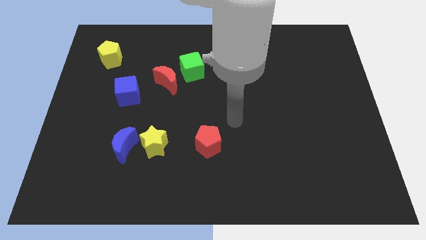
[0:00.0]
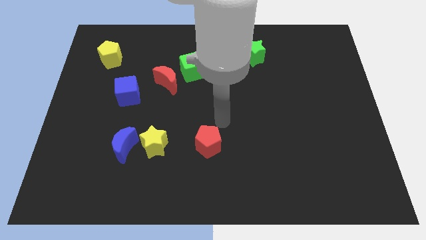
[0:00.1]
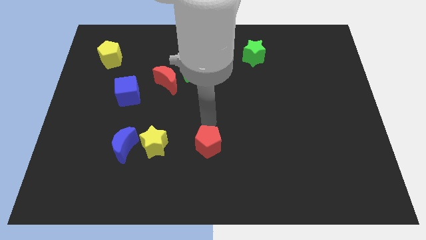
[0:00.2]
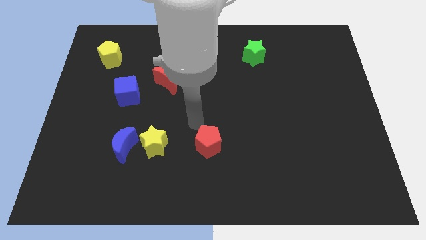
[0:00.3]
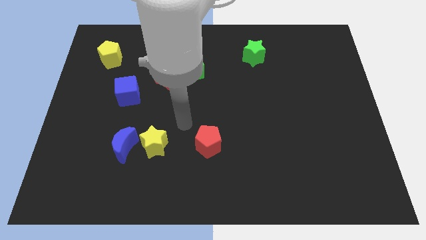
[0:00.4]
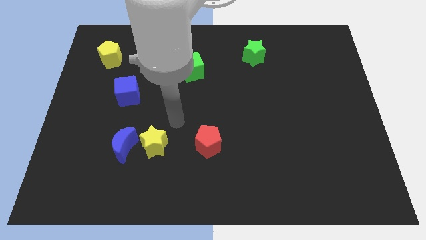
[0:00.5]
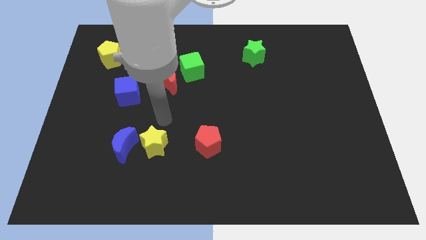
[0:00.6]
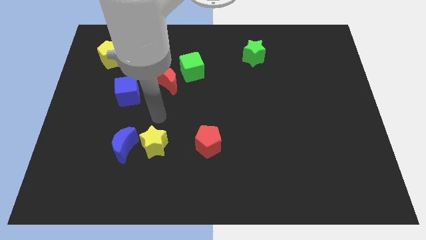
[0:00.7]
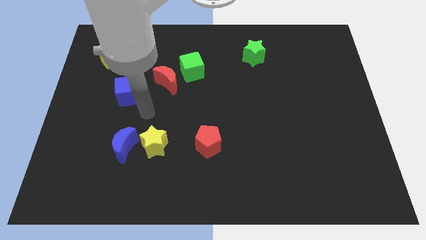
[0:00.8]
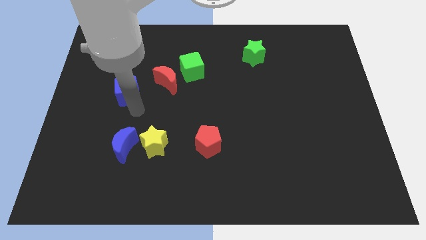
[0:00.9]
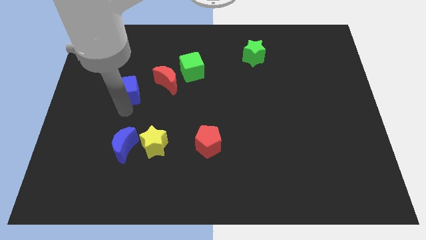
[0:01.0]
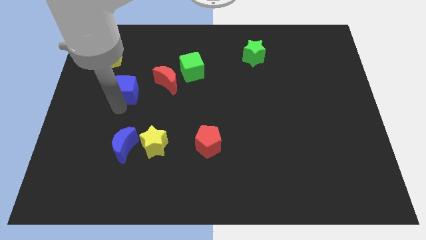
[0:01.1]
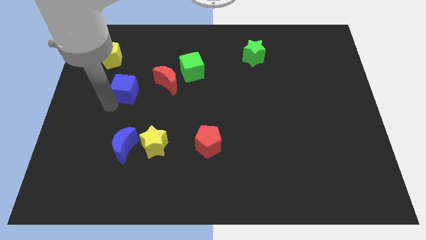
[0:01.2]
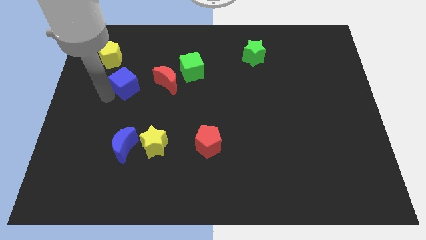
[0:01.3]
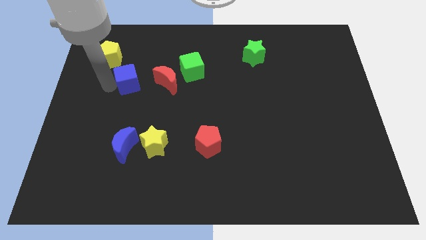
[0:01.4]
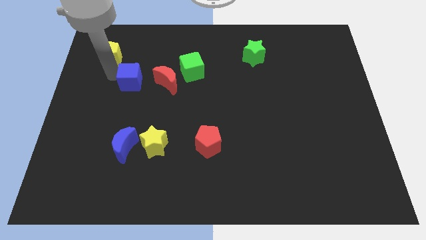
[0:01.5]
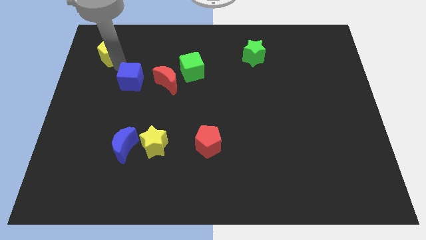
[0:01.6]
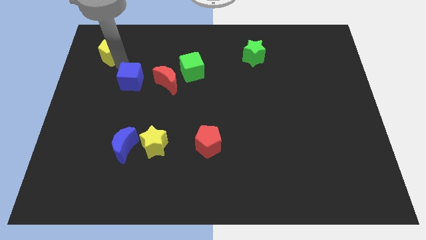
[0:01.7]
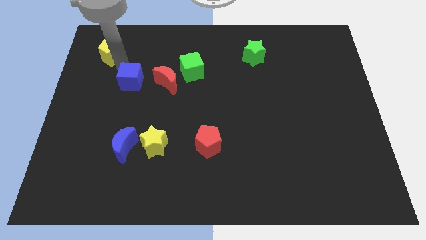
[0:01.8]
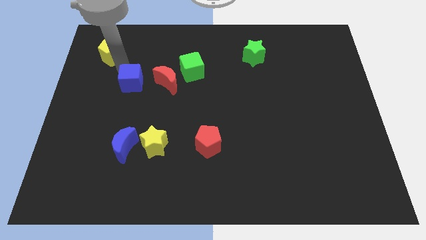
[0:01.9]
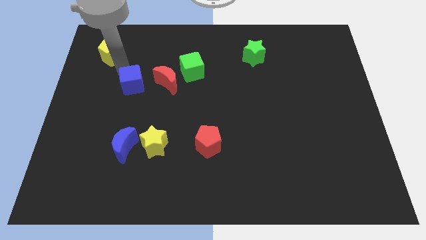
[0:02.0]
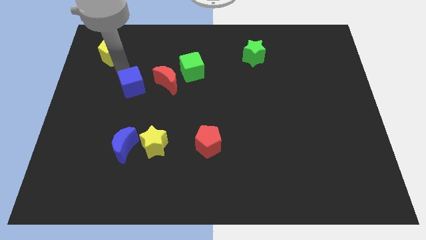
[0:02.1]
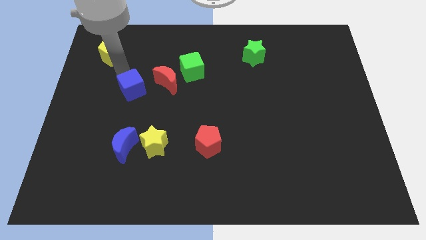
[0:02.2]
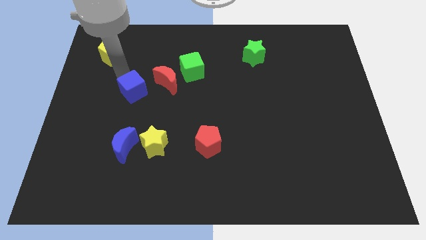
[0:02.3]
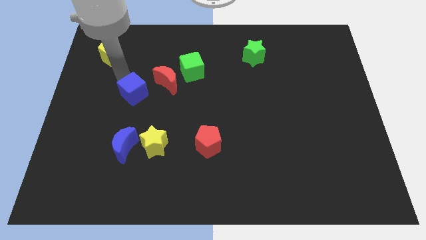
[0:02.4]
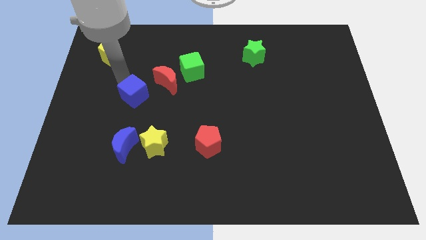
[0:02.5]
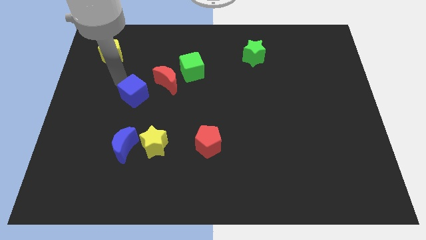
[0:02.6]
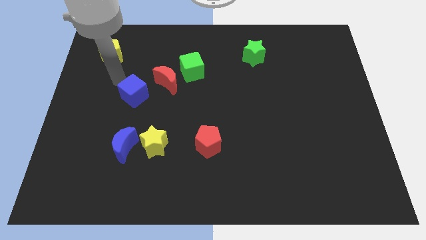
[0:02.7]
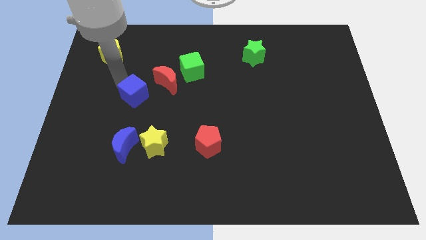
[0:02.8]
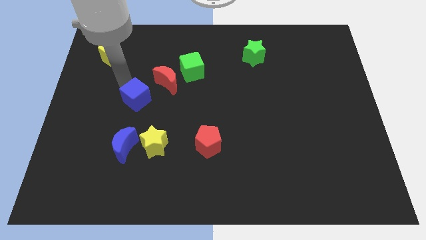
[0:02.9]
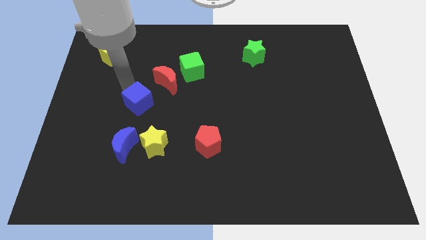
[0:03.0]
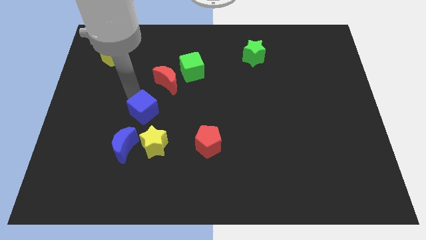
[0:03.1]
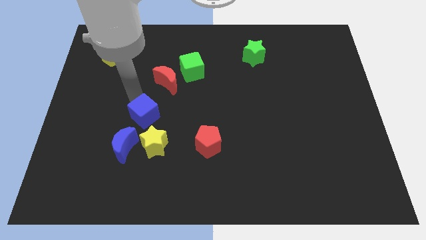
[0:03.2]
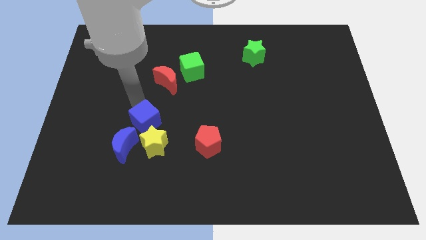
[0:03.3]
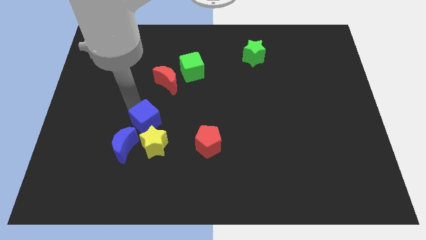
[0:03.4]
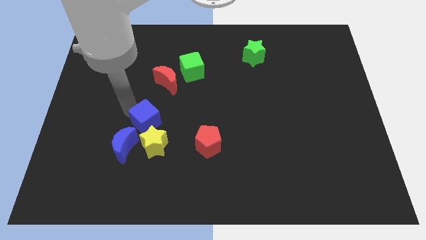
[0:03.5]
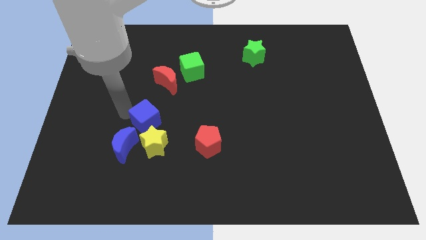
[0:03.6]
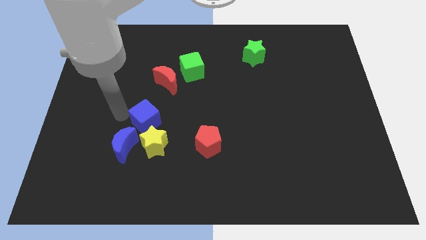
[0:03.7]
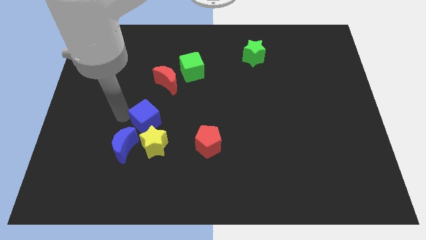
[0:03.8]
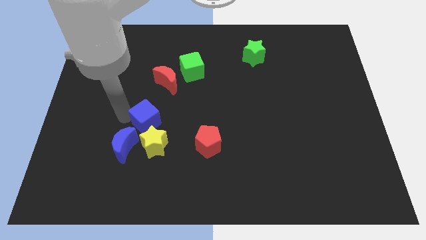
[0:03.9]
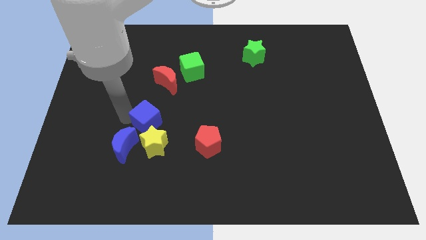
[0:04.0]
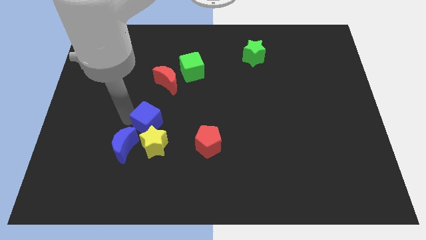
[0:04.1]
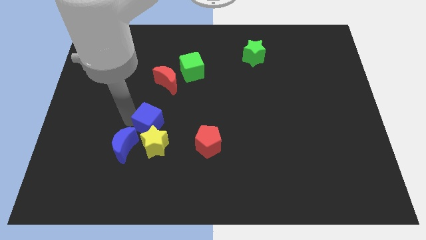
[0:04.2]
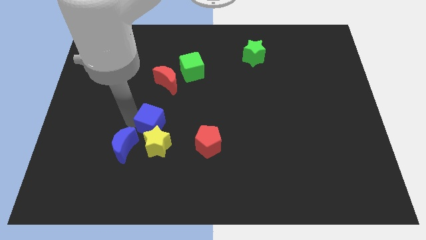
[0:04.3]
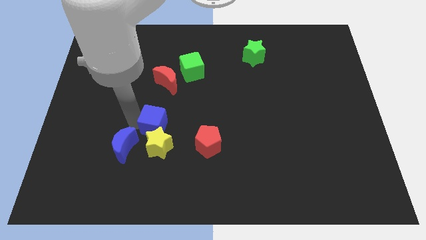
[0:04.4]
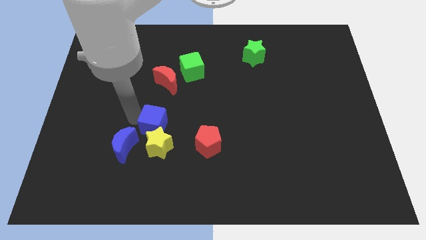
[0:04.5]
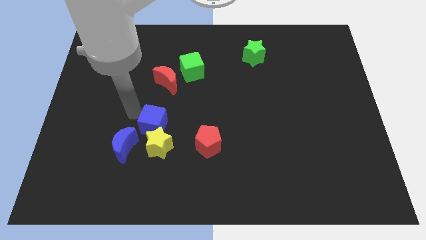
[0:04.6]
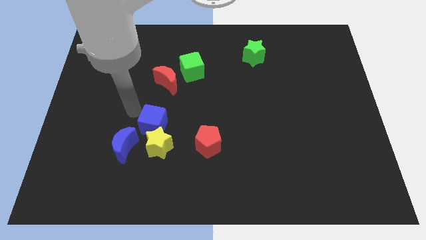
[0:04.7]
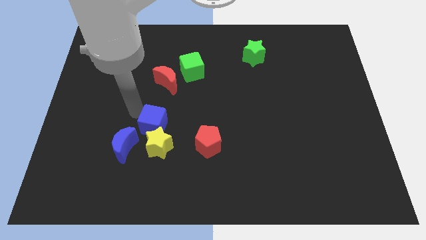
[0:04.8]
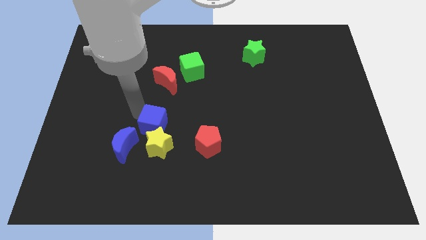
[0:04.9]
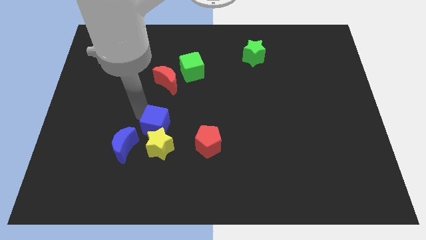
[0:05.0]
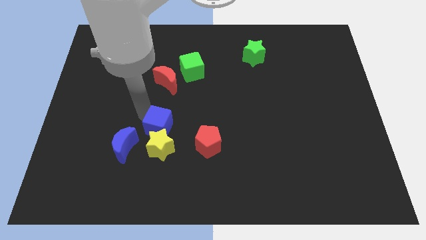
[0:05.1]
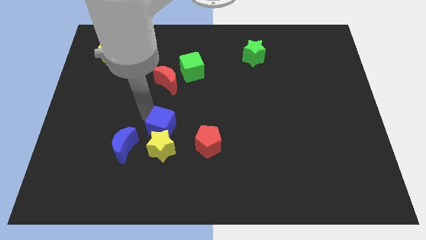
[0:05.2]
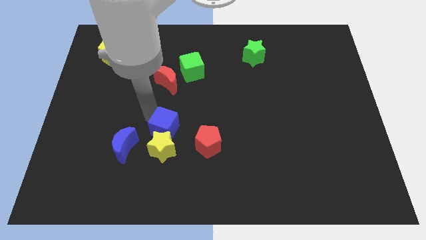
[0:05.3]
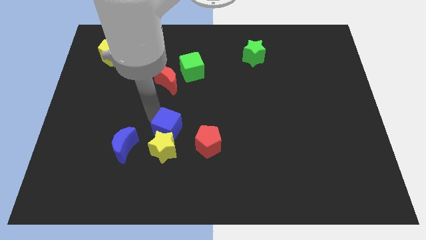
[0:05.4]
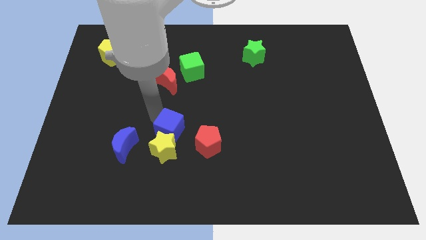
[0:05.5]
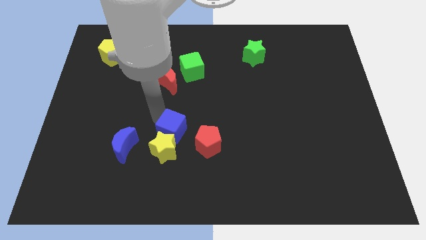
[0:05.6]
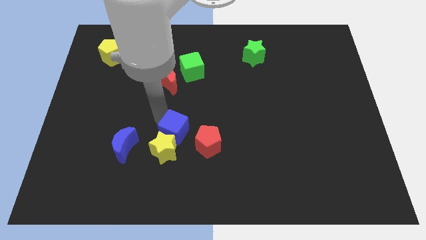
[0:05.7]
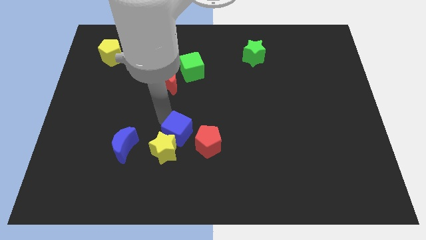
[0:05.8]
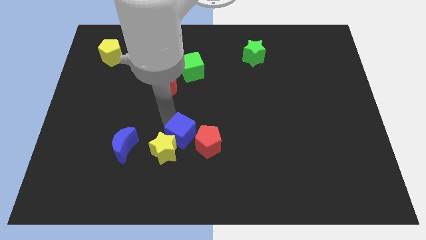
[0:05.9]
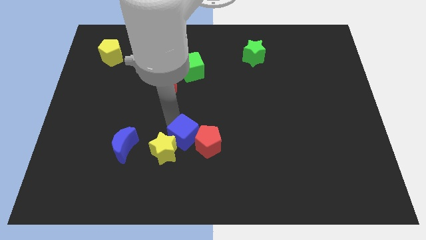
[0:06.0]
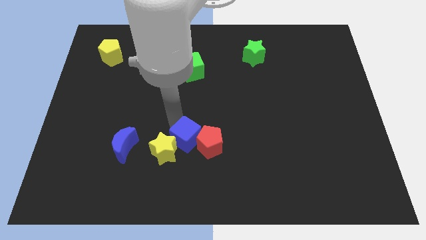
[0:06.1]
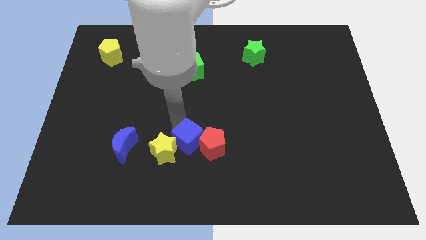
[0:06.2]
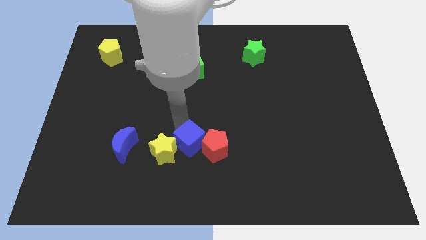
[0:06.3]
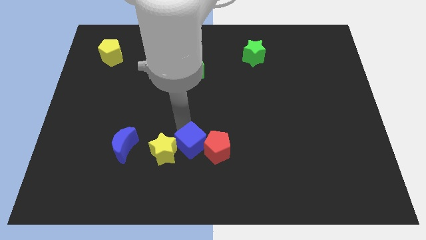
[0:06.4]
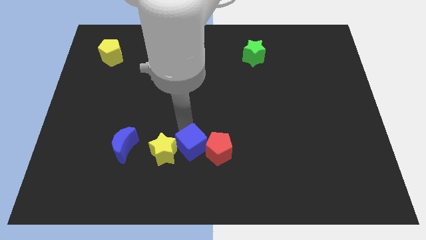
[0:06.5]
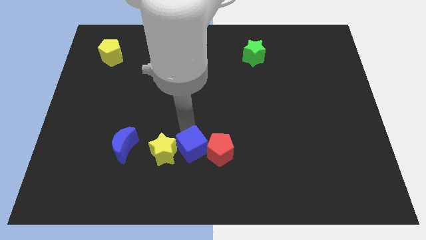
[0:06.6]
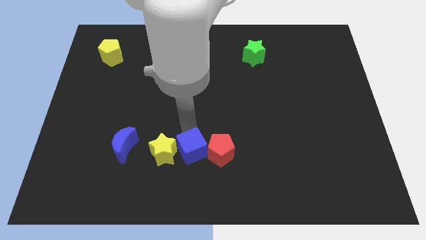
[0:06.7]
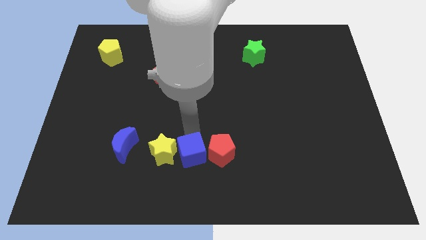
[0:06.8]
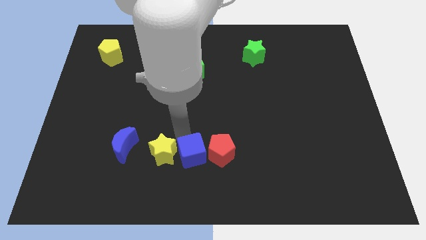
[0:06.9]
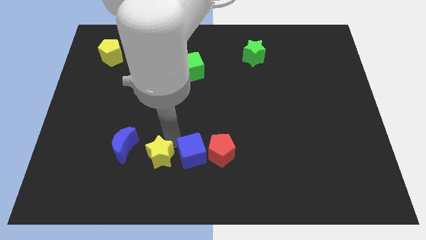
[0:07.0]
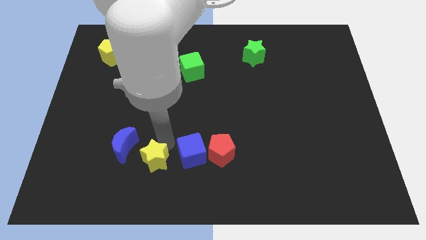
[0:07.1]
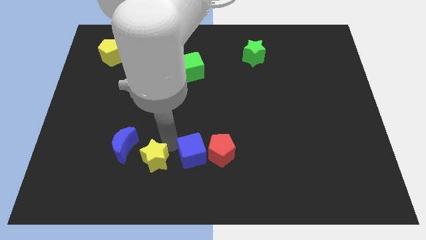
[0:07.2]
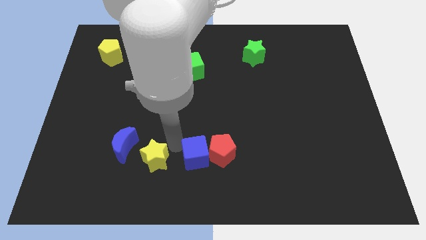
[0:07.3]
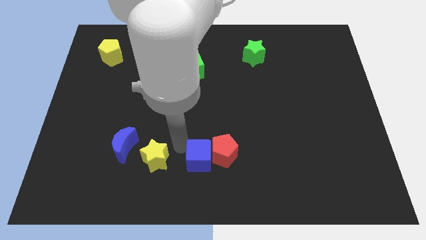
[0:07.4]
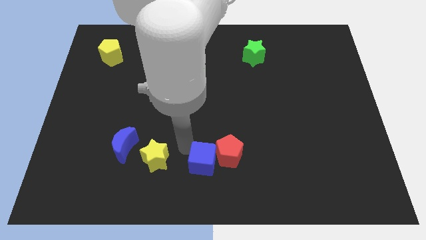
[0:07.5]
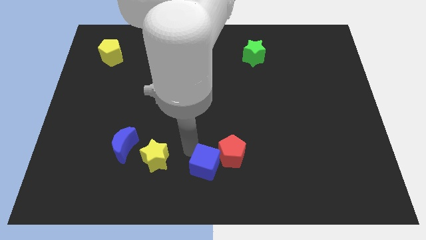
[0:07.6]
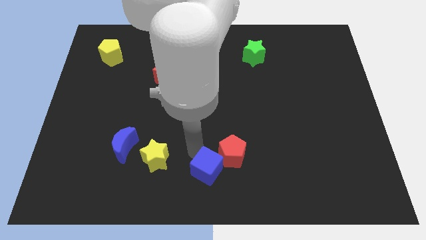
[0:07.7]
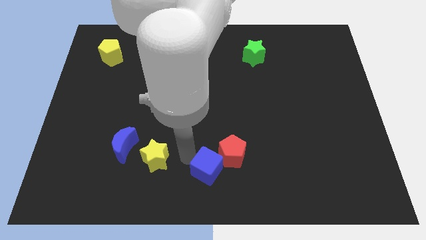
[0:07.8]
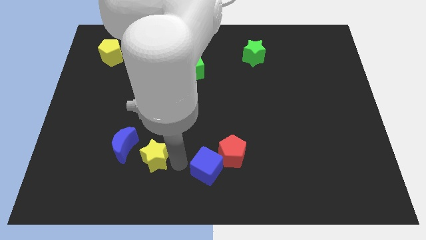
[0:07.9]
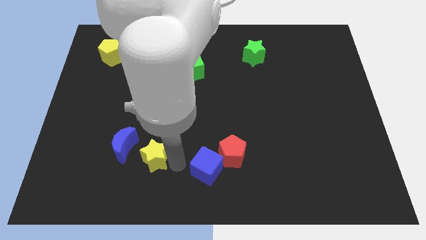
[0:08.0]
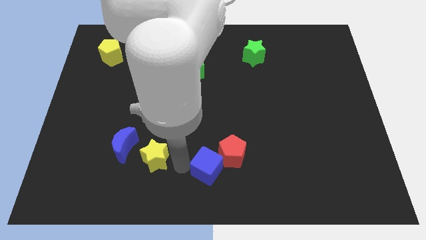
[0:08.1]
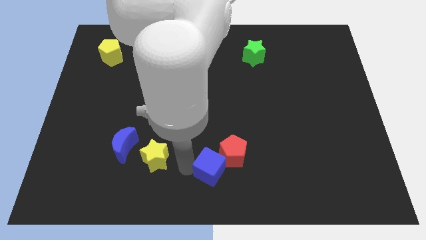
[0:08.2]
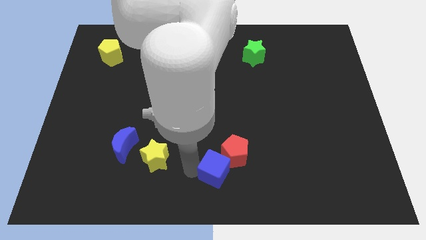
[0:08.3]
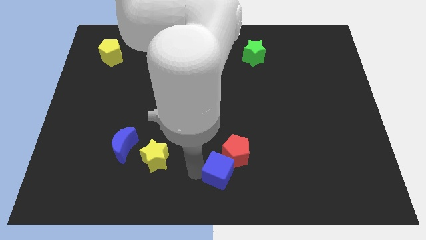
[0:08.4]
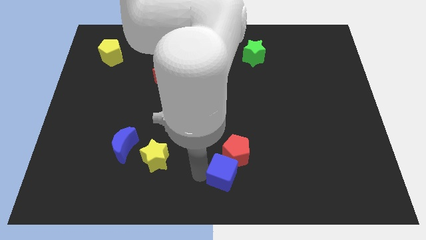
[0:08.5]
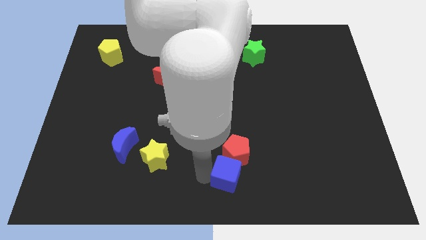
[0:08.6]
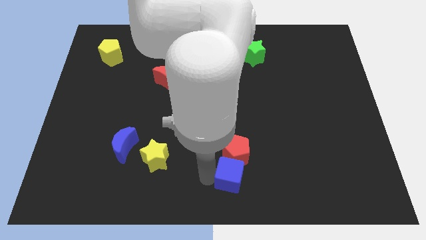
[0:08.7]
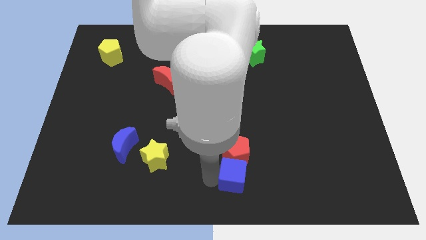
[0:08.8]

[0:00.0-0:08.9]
put the blue cube to the bottom right side of the red pentagon
